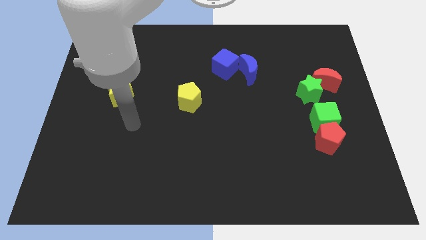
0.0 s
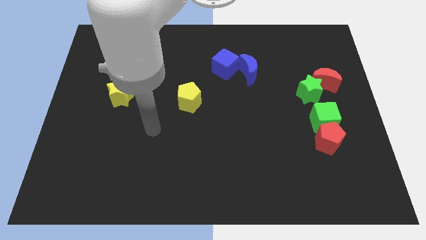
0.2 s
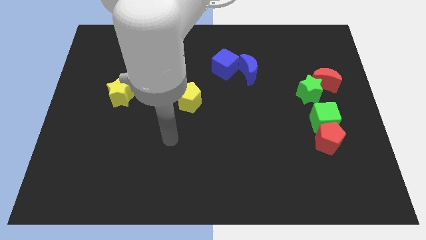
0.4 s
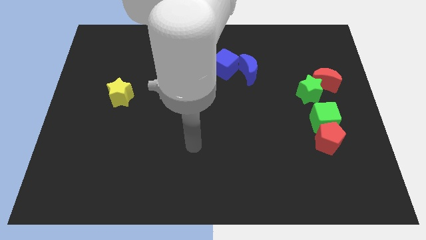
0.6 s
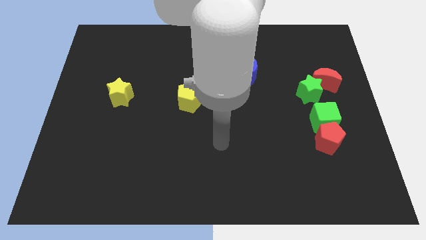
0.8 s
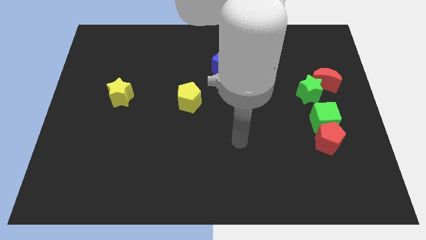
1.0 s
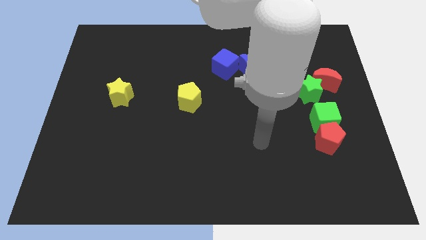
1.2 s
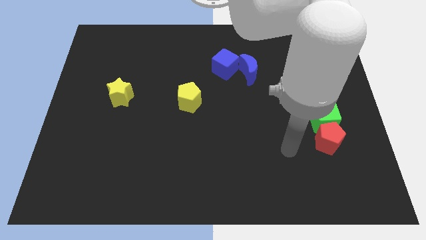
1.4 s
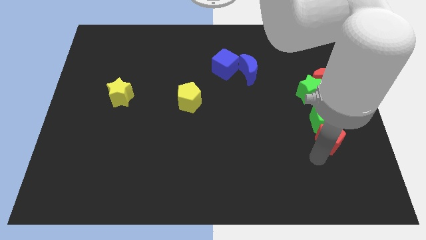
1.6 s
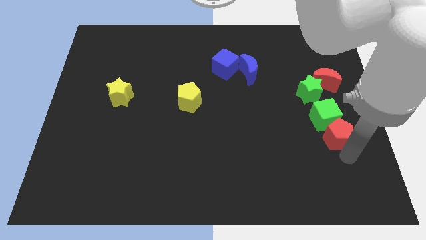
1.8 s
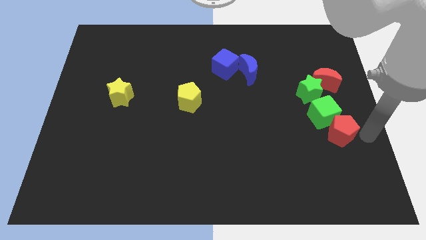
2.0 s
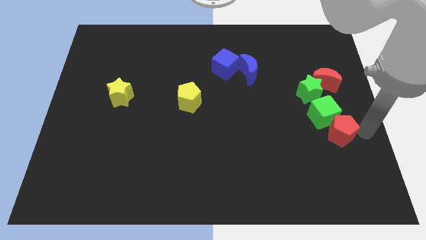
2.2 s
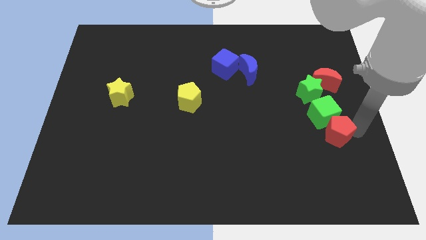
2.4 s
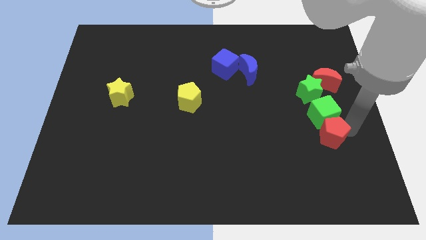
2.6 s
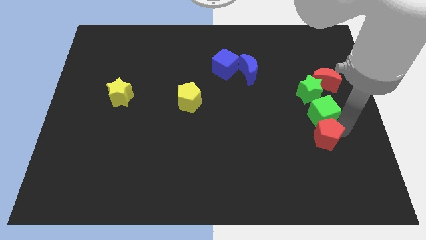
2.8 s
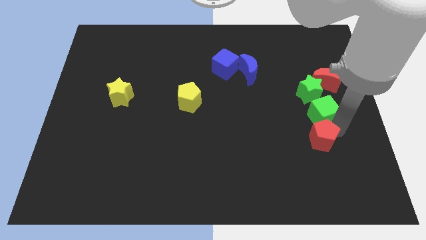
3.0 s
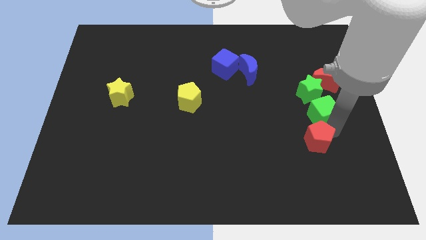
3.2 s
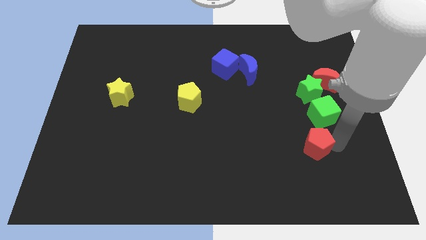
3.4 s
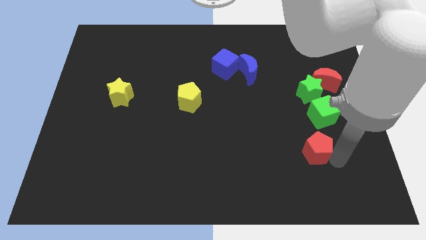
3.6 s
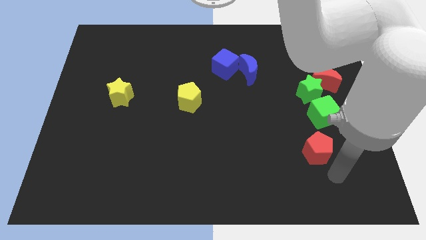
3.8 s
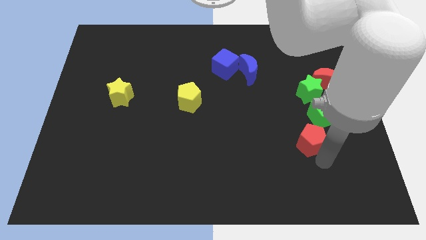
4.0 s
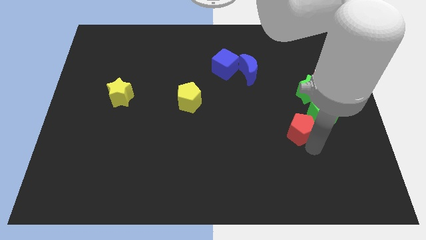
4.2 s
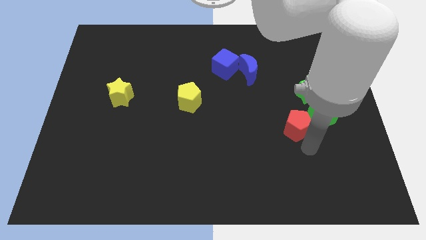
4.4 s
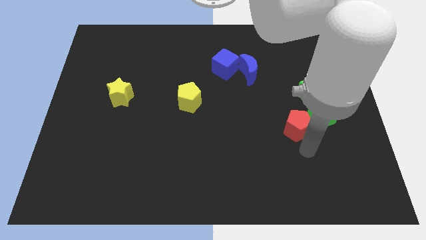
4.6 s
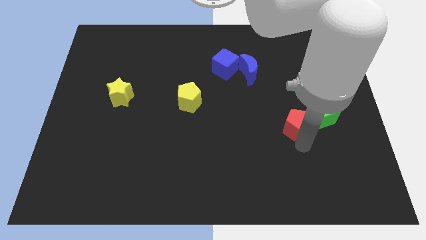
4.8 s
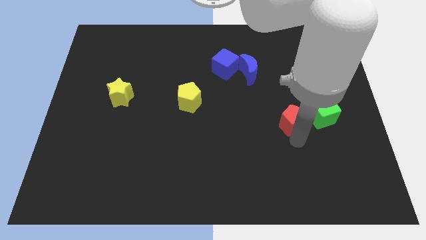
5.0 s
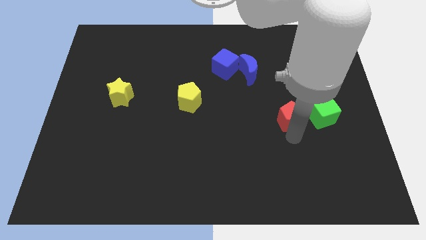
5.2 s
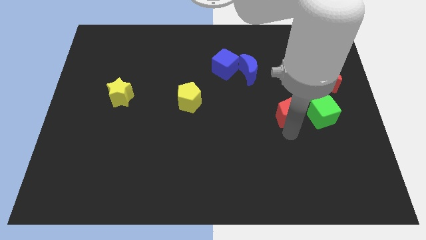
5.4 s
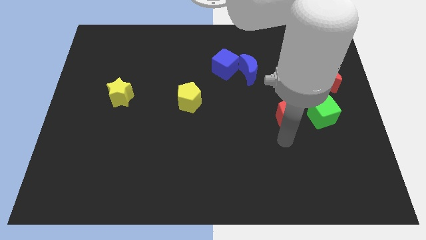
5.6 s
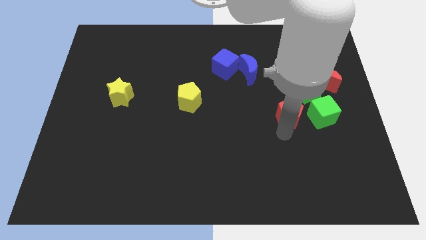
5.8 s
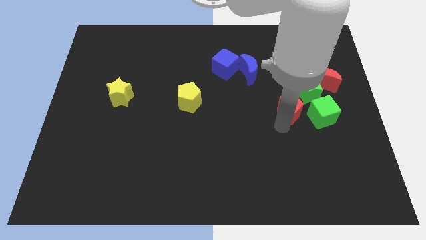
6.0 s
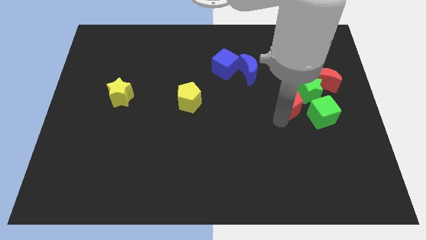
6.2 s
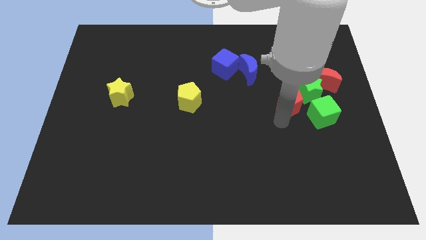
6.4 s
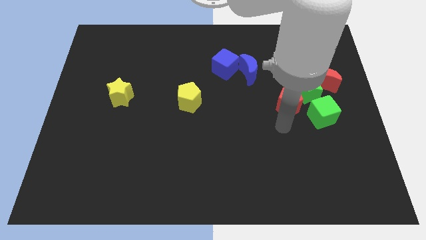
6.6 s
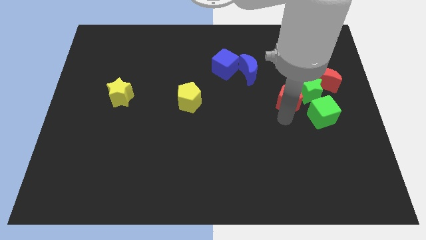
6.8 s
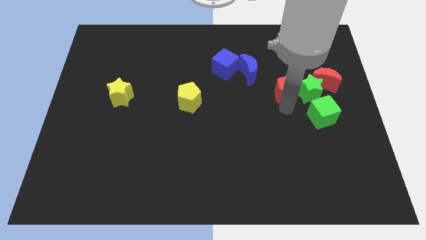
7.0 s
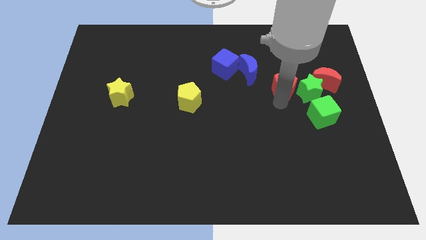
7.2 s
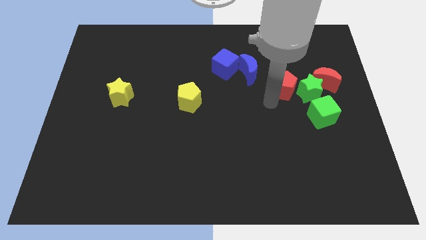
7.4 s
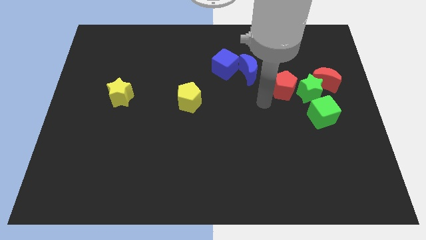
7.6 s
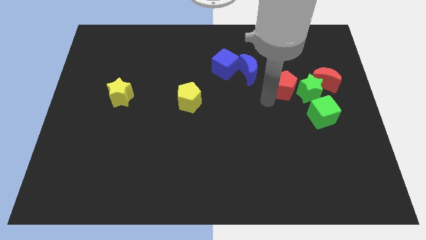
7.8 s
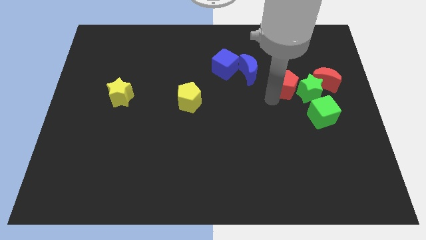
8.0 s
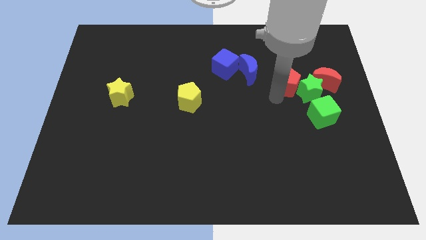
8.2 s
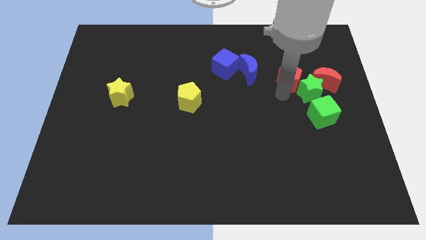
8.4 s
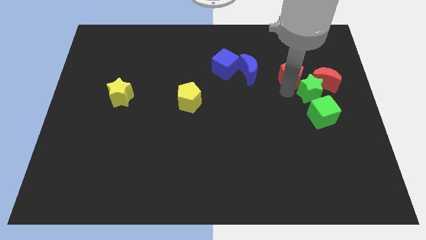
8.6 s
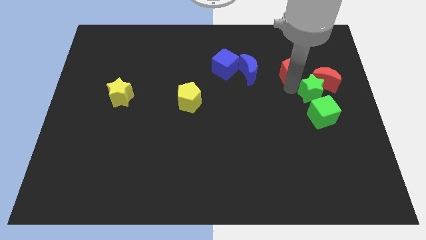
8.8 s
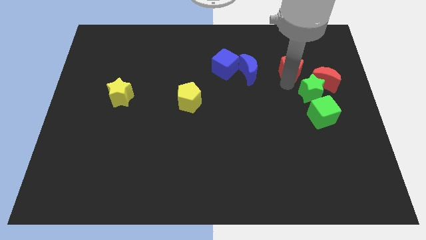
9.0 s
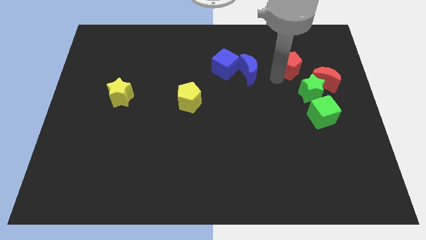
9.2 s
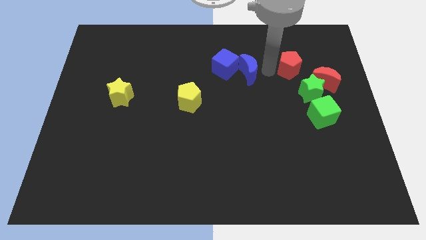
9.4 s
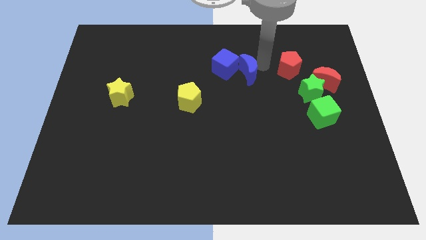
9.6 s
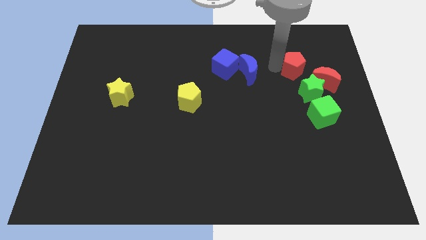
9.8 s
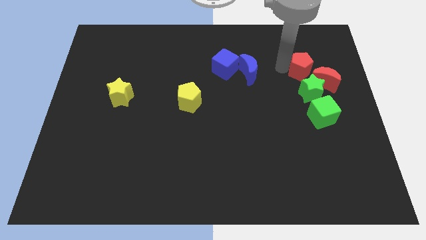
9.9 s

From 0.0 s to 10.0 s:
move the red pentagon to the top side of the green cube

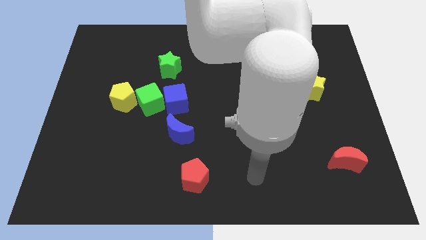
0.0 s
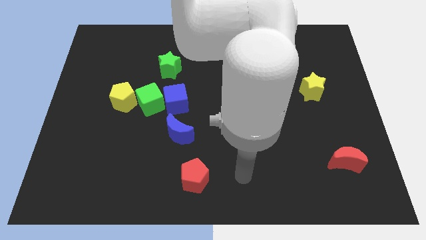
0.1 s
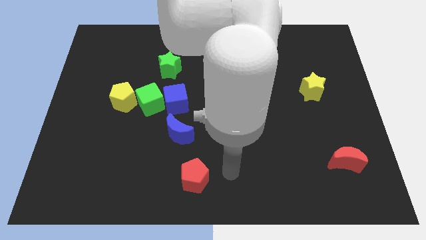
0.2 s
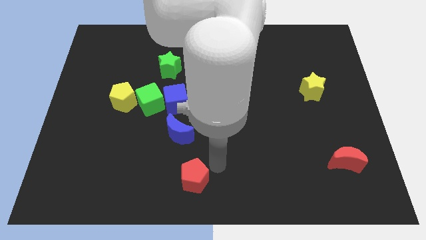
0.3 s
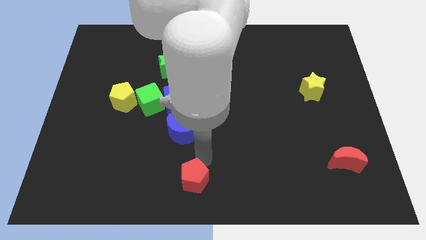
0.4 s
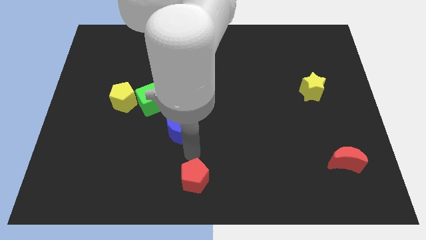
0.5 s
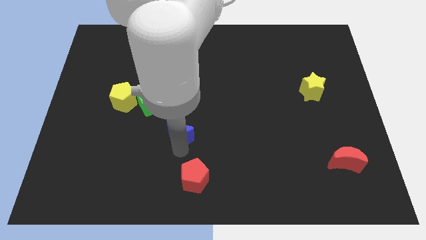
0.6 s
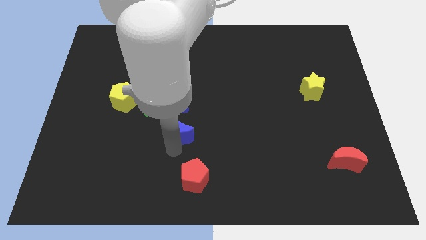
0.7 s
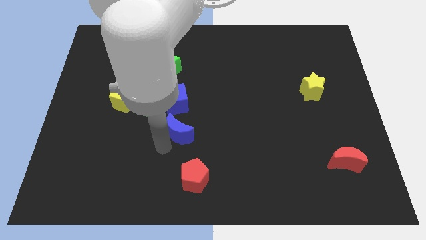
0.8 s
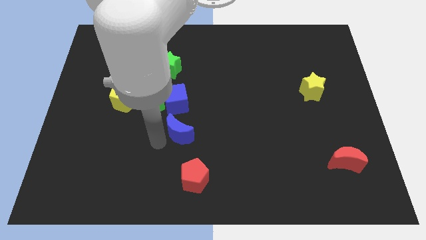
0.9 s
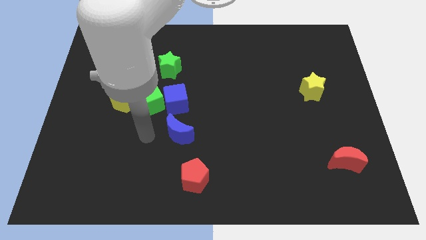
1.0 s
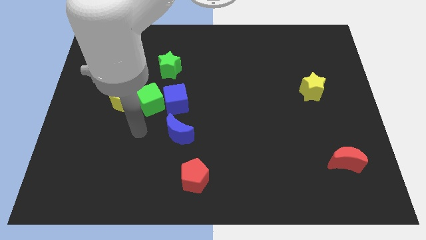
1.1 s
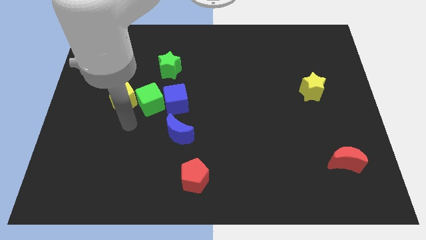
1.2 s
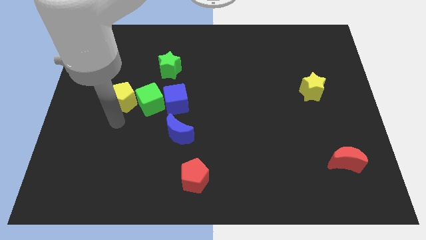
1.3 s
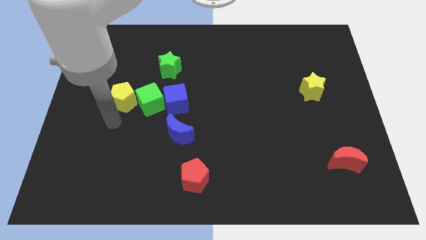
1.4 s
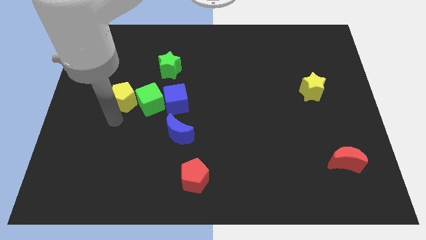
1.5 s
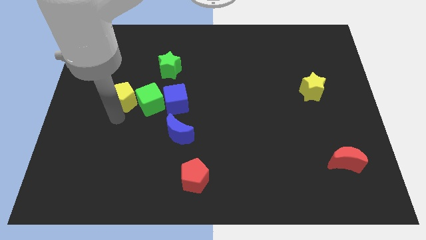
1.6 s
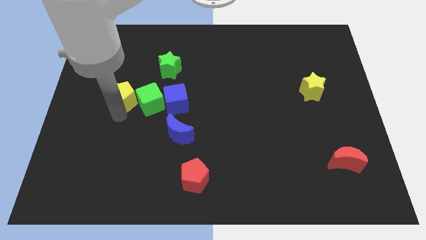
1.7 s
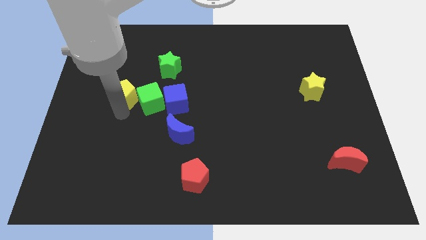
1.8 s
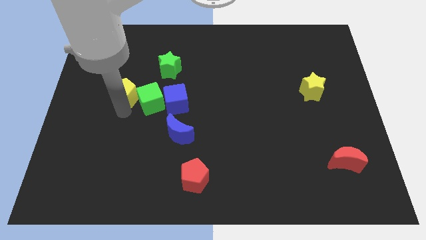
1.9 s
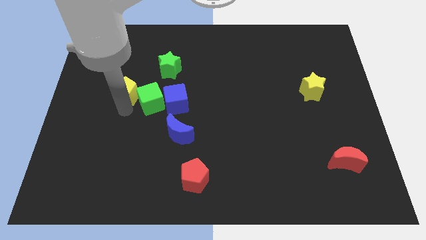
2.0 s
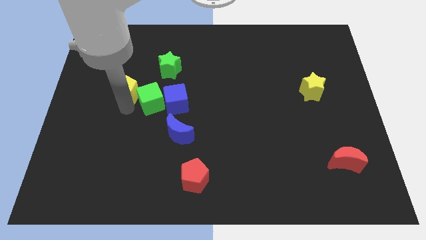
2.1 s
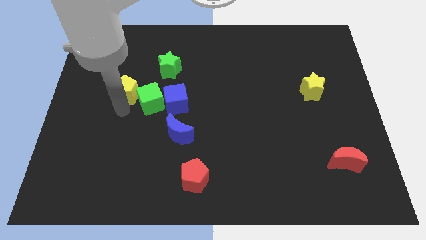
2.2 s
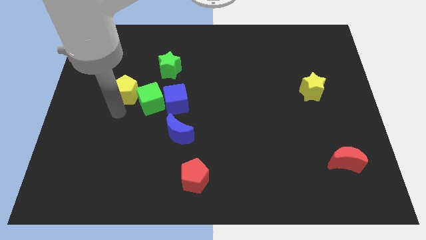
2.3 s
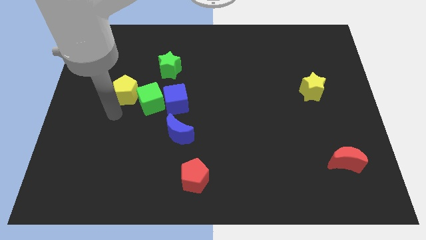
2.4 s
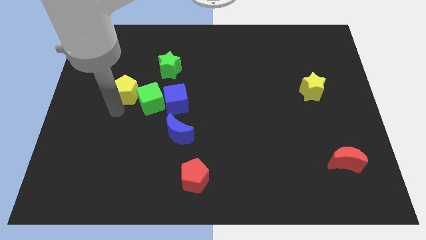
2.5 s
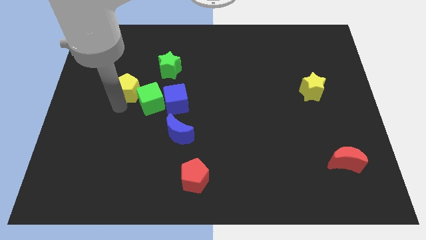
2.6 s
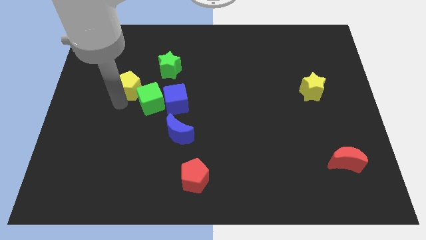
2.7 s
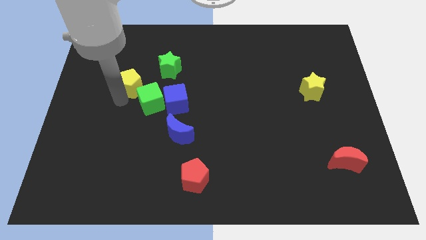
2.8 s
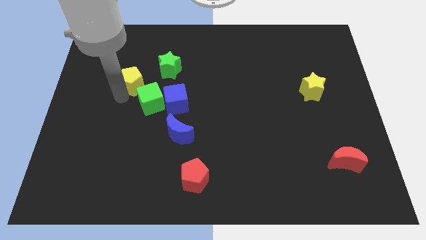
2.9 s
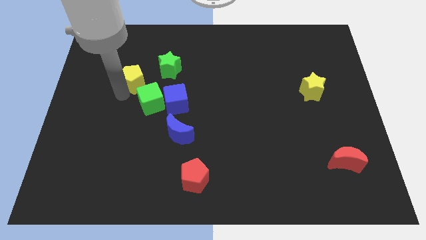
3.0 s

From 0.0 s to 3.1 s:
push the yellow pentagon to the top of the green cube
